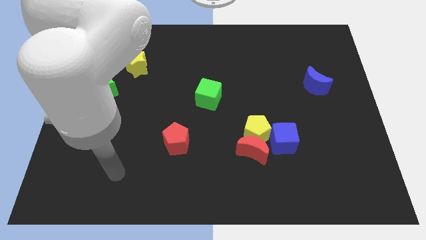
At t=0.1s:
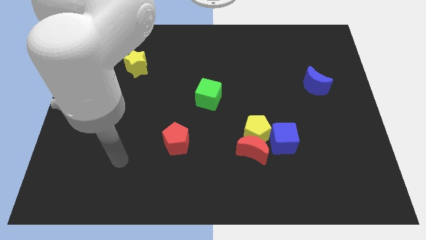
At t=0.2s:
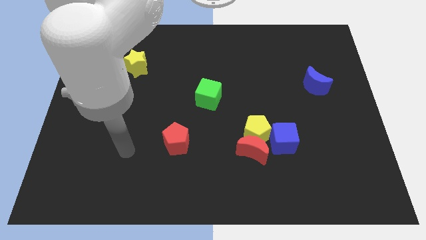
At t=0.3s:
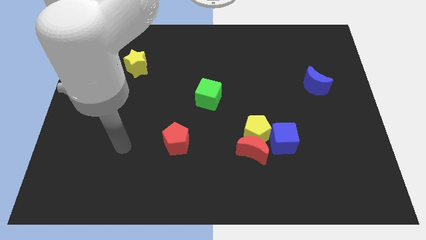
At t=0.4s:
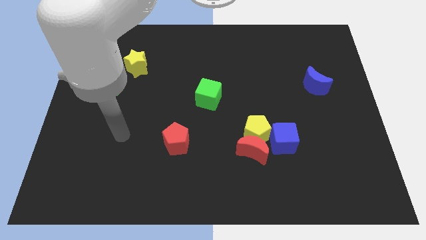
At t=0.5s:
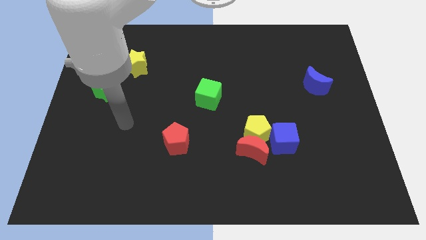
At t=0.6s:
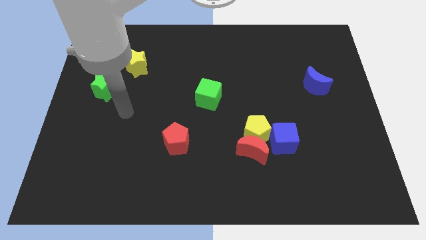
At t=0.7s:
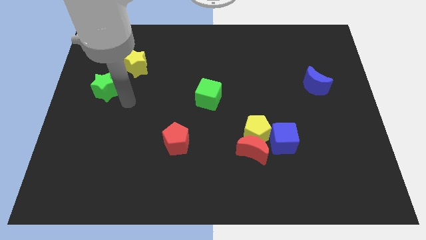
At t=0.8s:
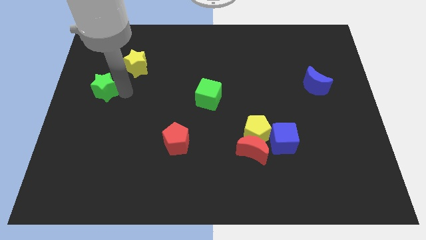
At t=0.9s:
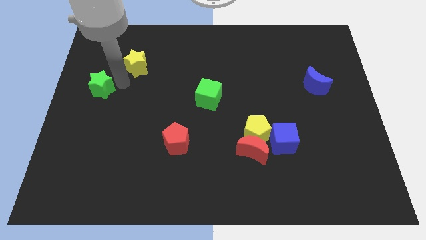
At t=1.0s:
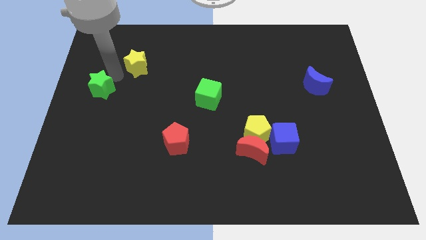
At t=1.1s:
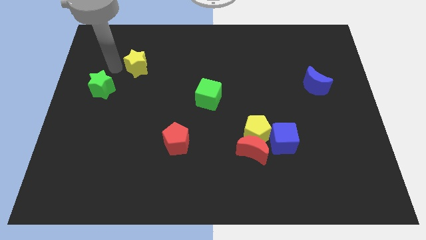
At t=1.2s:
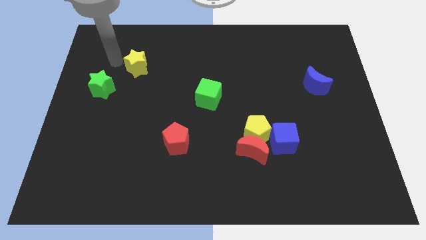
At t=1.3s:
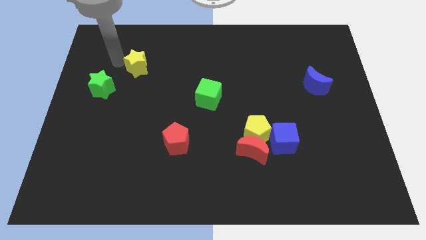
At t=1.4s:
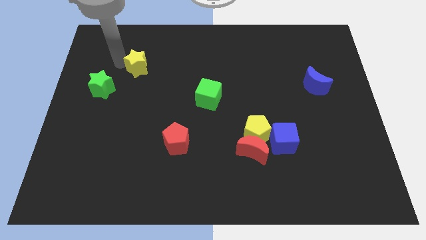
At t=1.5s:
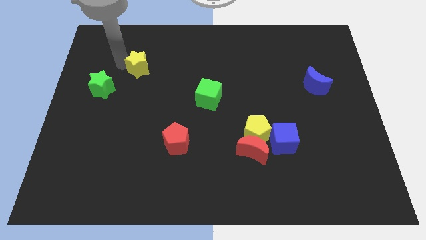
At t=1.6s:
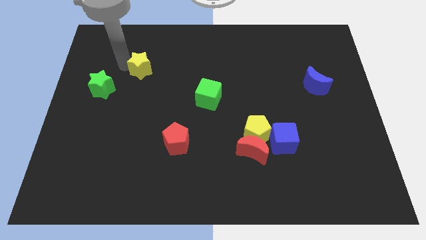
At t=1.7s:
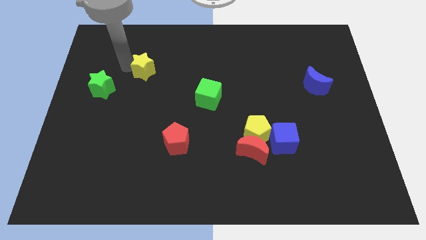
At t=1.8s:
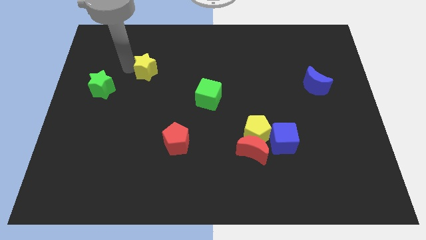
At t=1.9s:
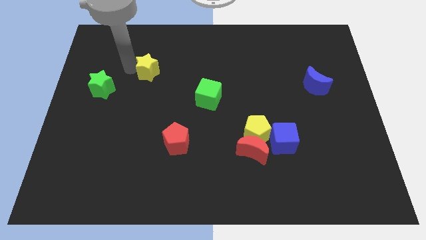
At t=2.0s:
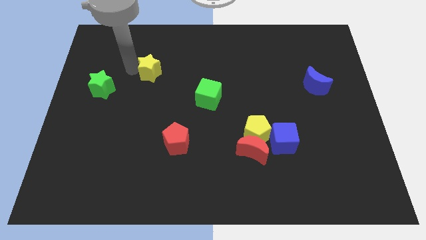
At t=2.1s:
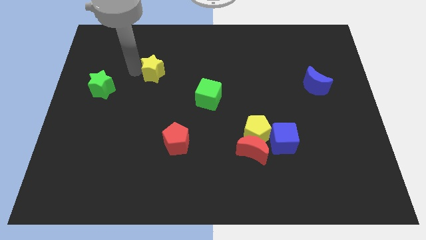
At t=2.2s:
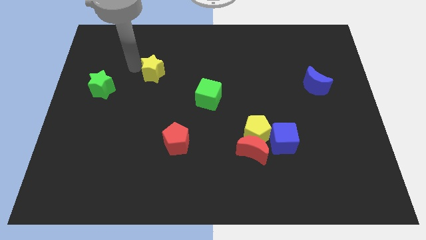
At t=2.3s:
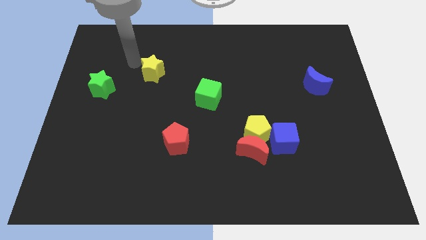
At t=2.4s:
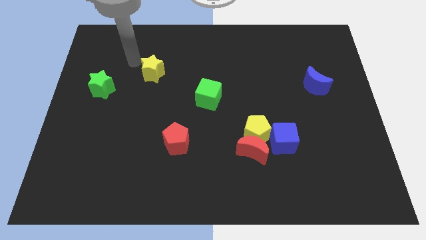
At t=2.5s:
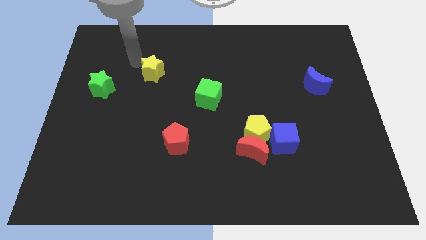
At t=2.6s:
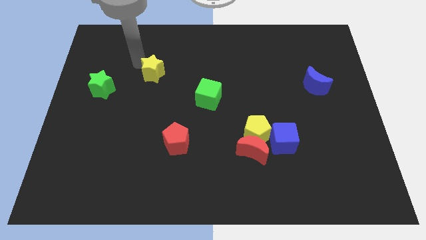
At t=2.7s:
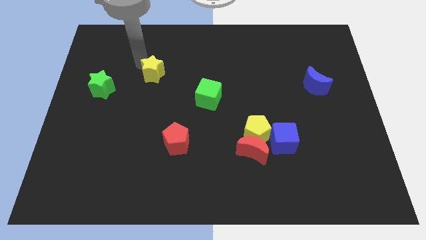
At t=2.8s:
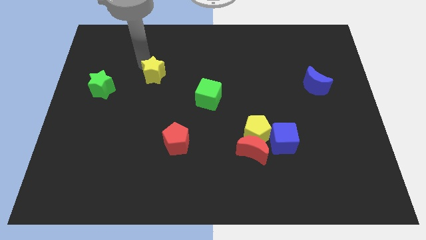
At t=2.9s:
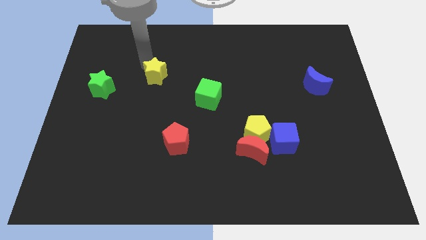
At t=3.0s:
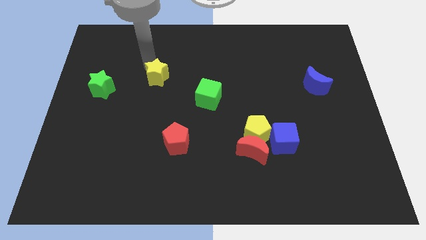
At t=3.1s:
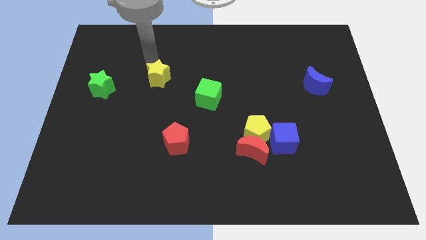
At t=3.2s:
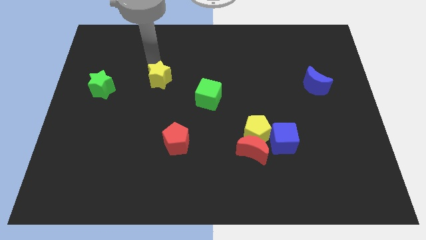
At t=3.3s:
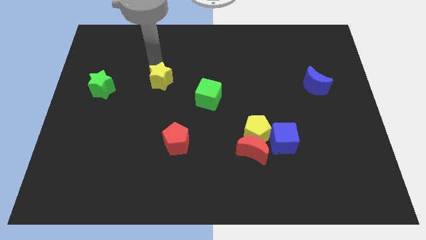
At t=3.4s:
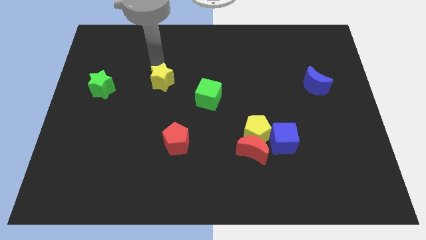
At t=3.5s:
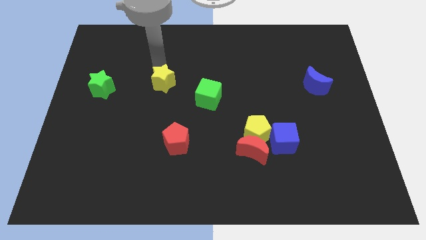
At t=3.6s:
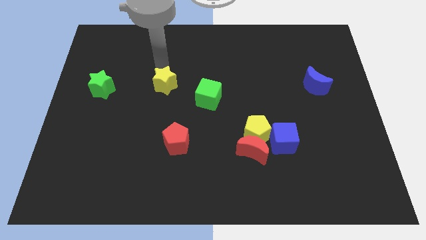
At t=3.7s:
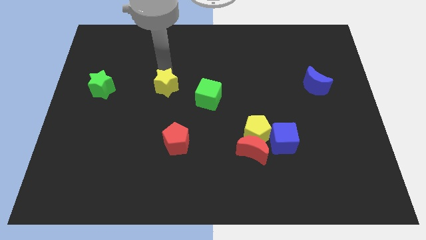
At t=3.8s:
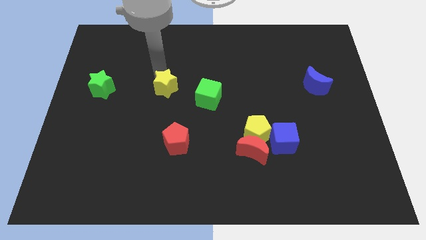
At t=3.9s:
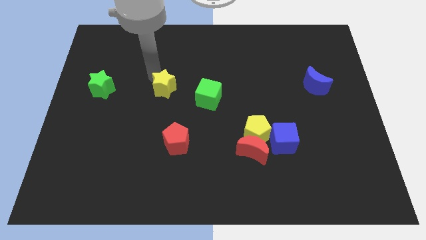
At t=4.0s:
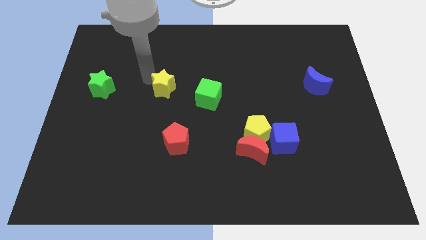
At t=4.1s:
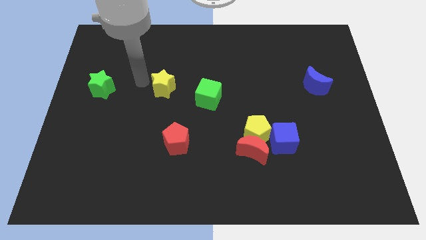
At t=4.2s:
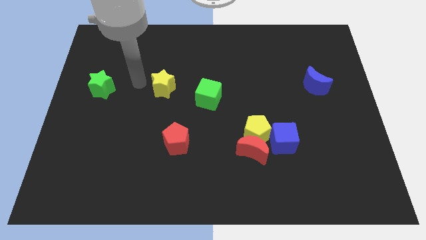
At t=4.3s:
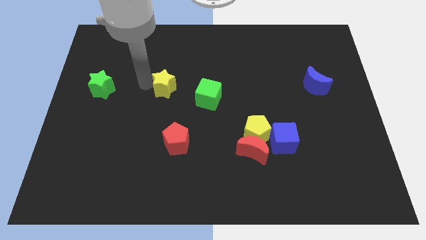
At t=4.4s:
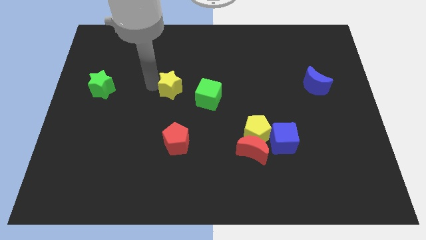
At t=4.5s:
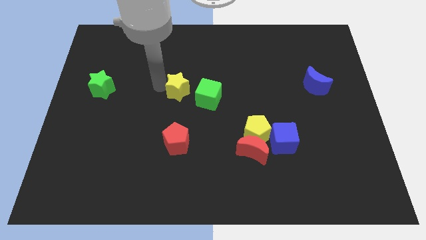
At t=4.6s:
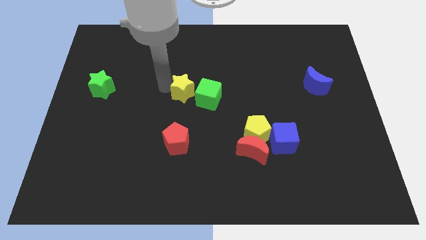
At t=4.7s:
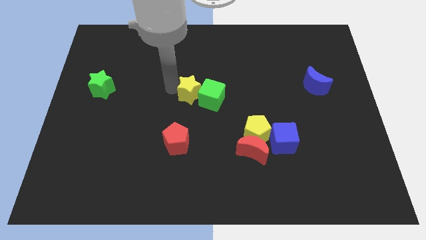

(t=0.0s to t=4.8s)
put the yellow star towards the green cube

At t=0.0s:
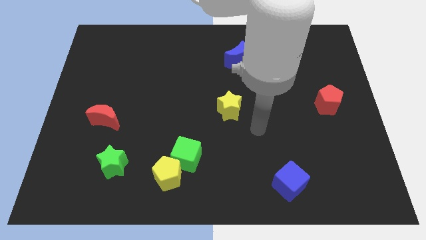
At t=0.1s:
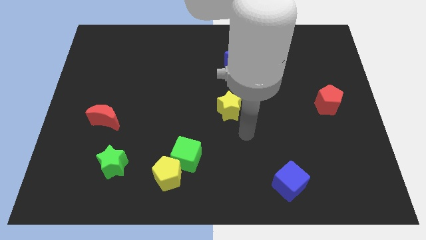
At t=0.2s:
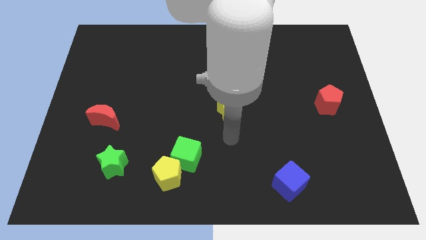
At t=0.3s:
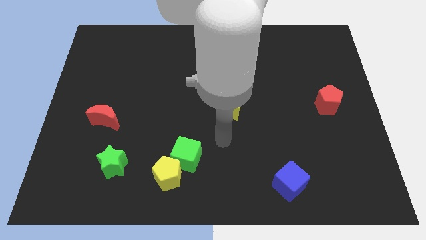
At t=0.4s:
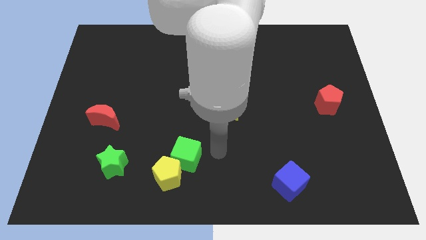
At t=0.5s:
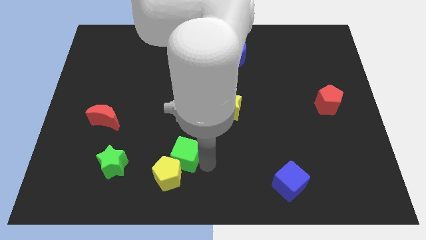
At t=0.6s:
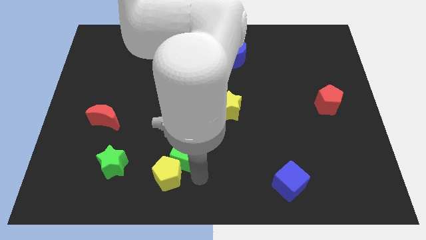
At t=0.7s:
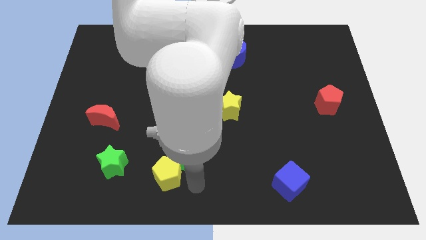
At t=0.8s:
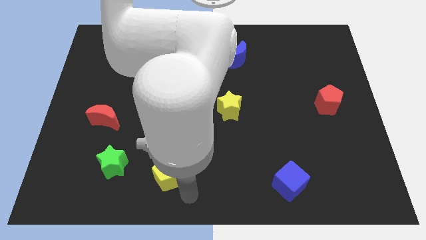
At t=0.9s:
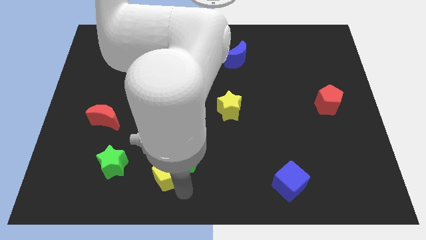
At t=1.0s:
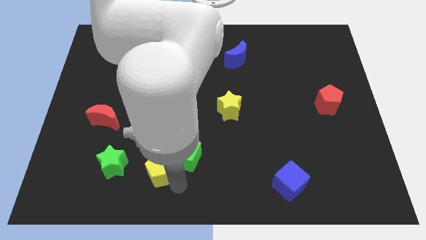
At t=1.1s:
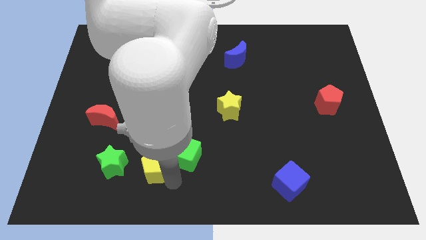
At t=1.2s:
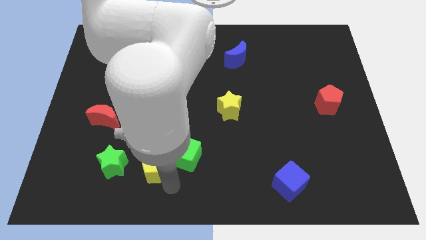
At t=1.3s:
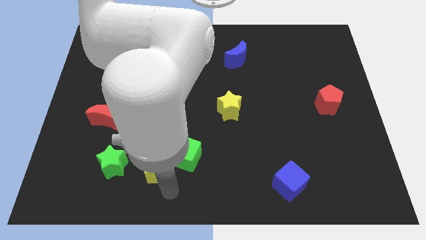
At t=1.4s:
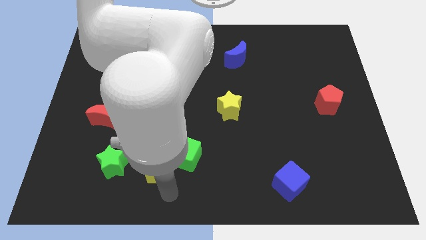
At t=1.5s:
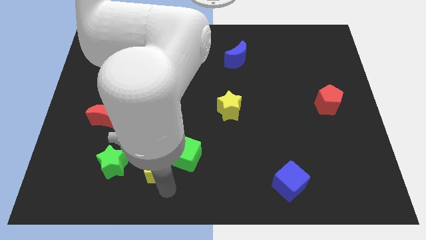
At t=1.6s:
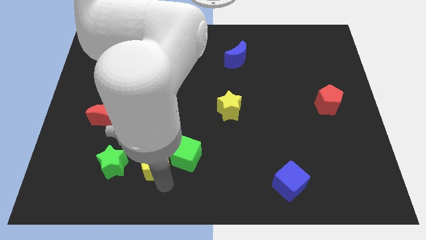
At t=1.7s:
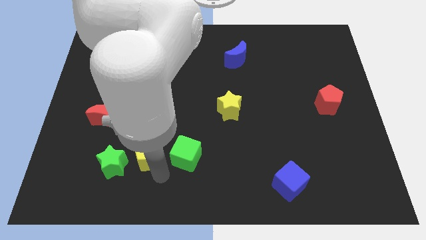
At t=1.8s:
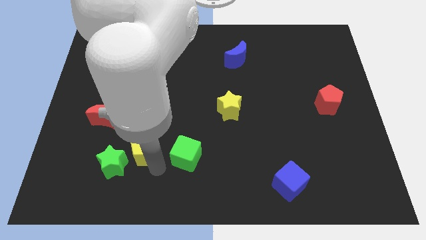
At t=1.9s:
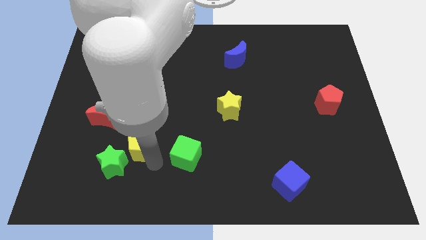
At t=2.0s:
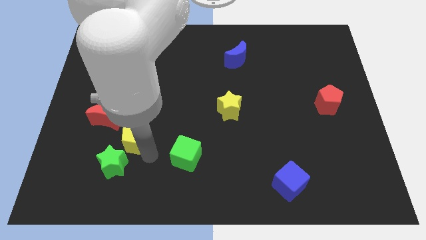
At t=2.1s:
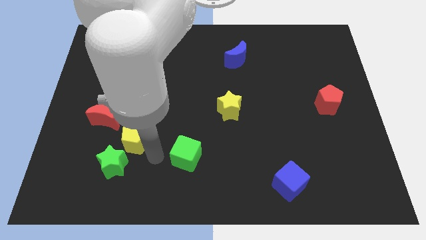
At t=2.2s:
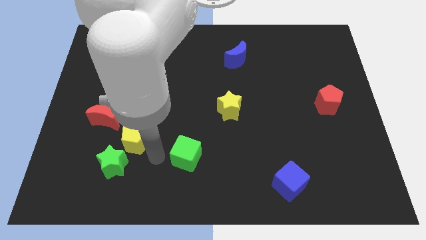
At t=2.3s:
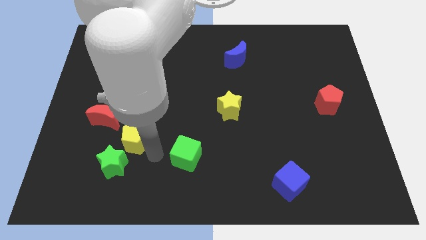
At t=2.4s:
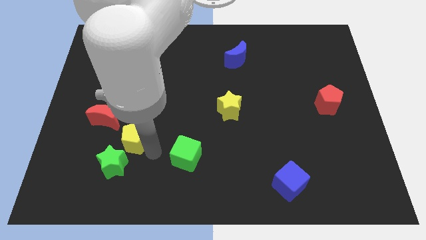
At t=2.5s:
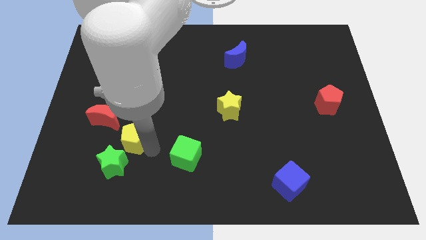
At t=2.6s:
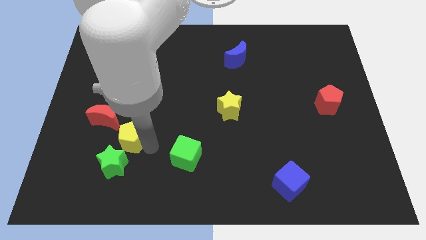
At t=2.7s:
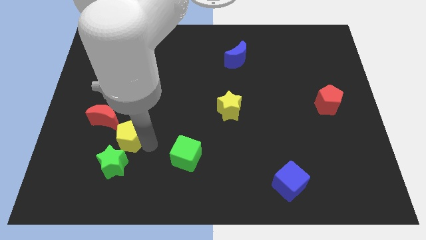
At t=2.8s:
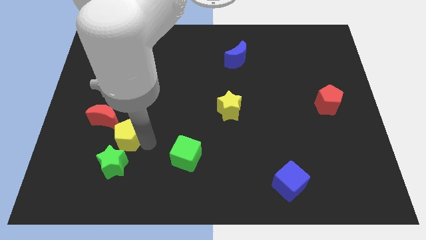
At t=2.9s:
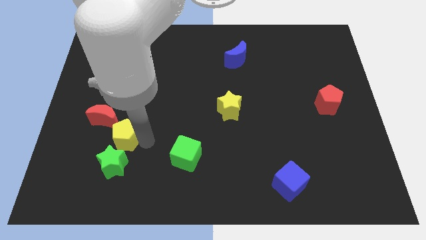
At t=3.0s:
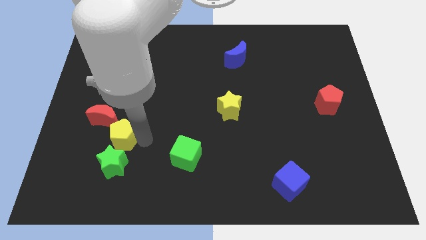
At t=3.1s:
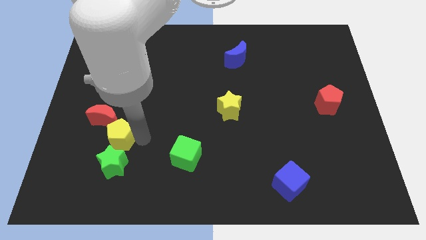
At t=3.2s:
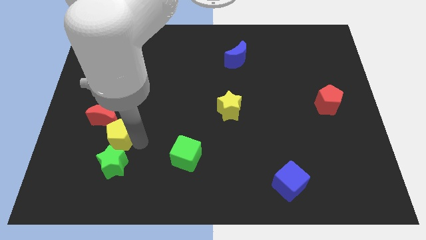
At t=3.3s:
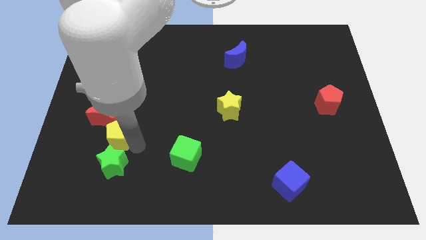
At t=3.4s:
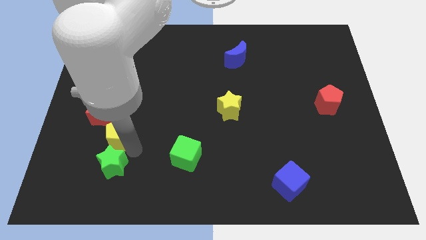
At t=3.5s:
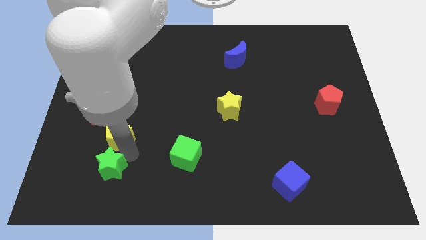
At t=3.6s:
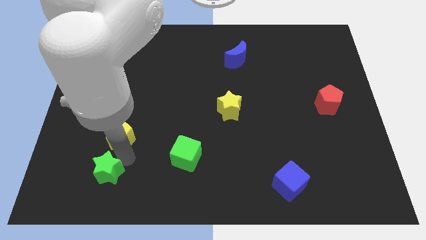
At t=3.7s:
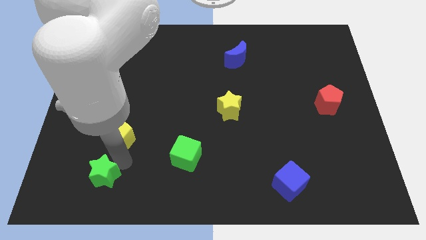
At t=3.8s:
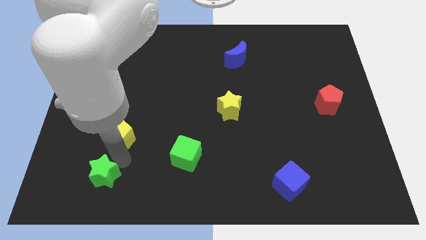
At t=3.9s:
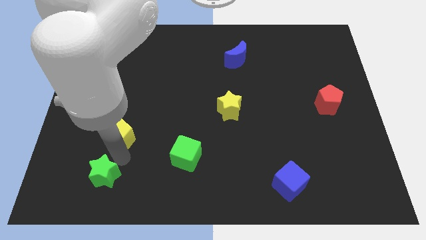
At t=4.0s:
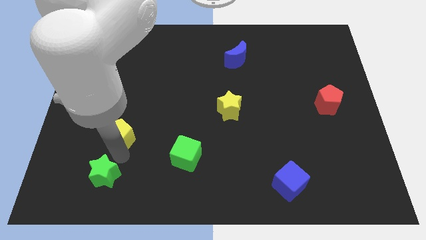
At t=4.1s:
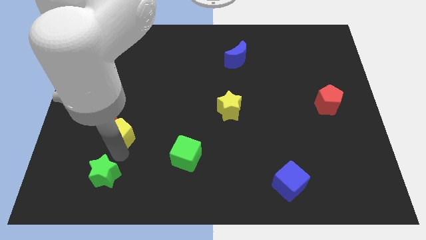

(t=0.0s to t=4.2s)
move the yellow pentagon next to the red moon
